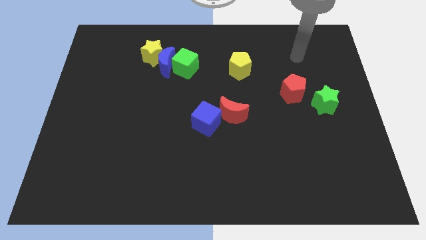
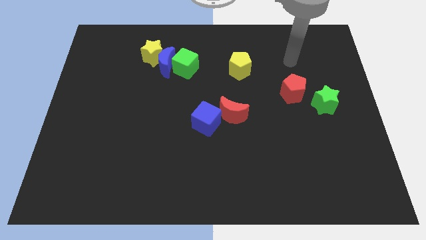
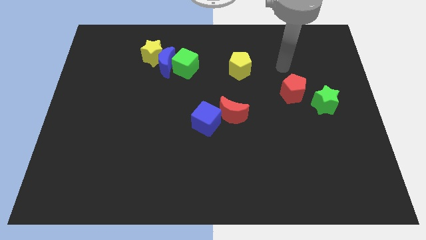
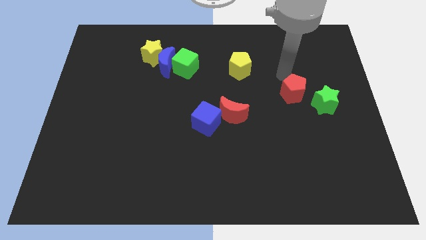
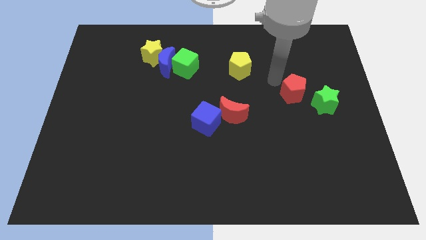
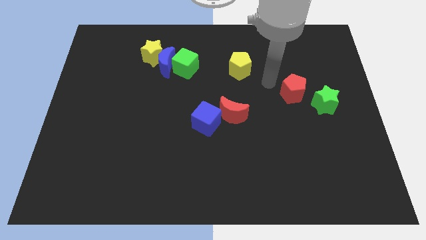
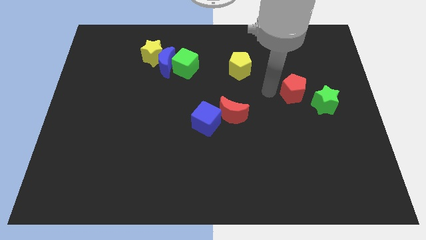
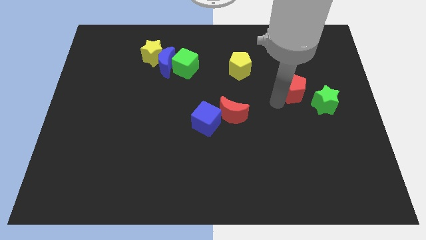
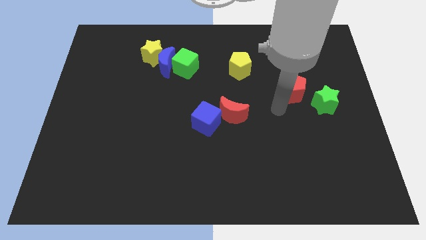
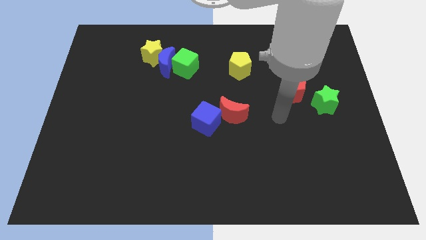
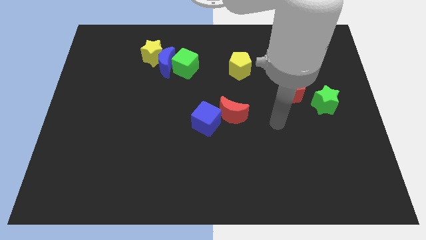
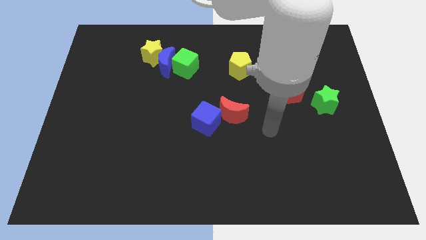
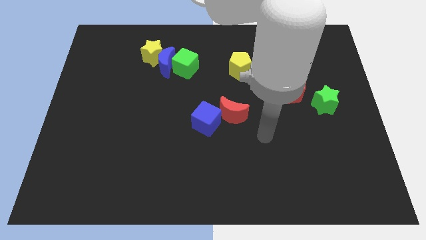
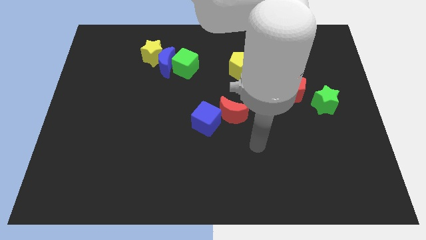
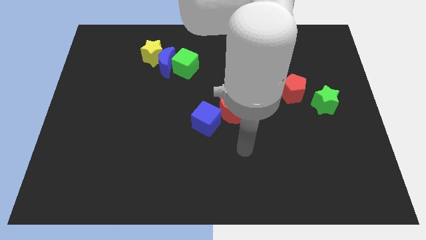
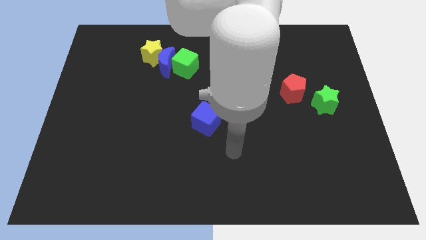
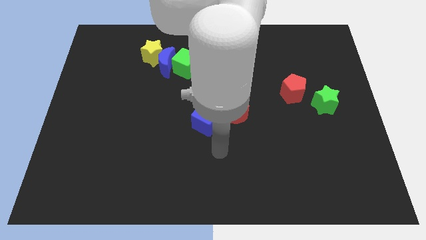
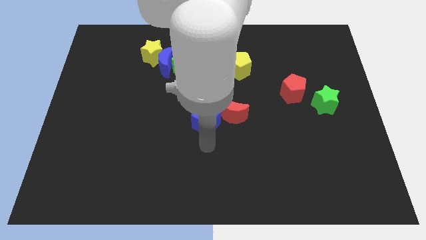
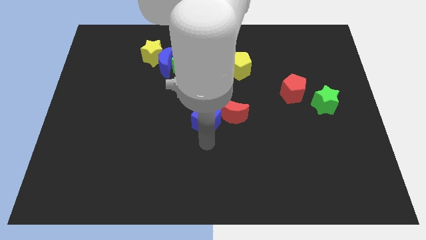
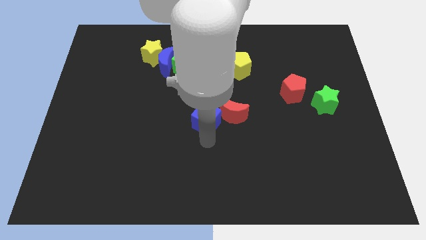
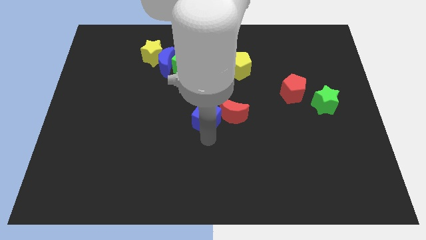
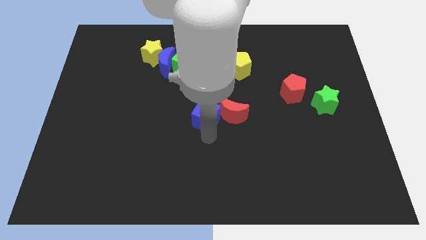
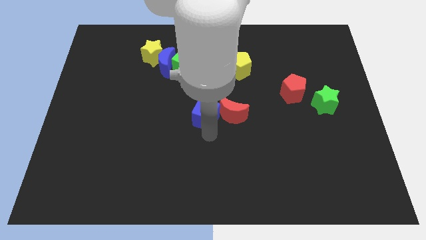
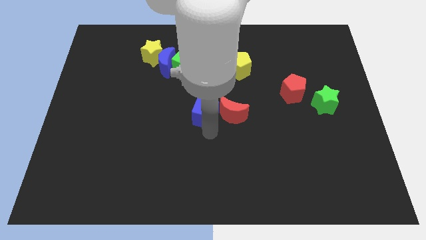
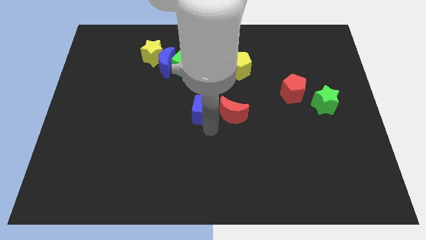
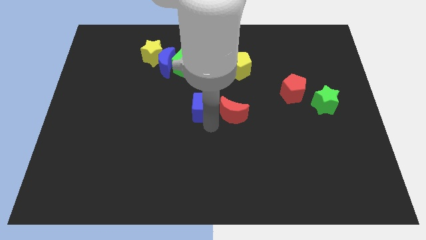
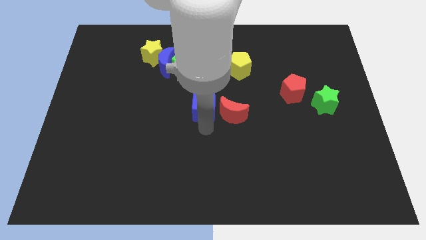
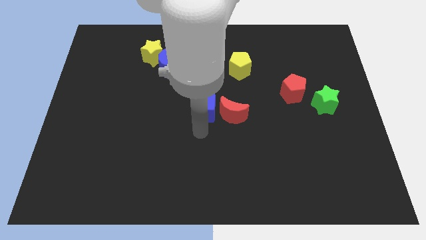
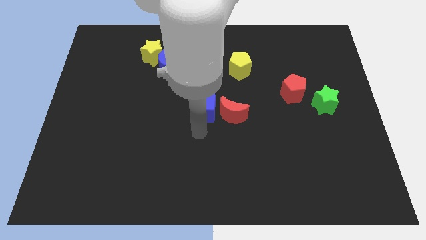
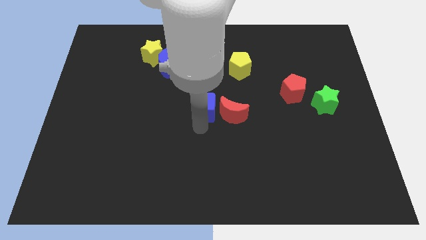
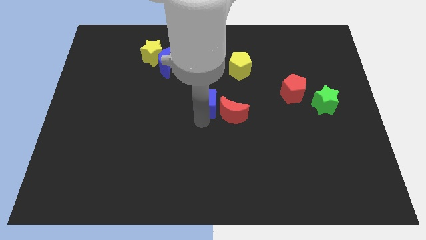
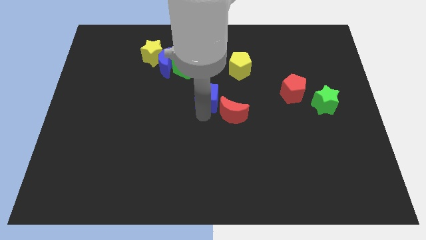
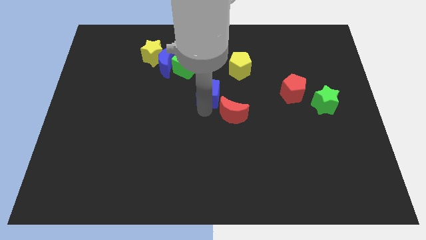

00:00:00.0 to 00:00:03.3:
slightly slide the blue cube upwards

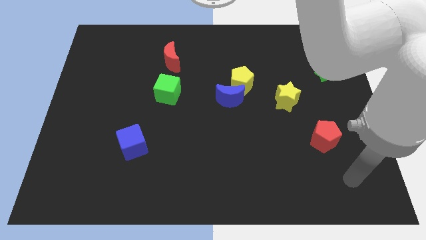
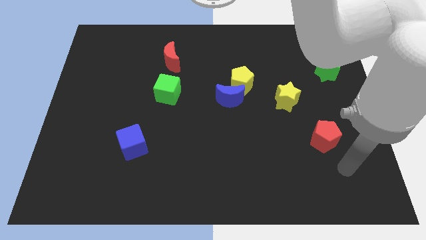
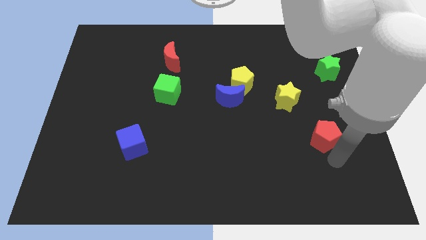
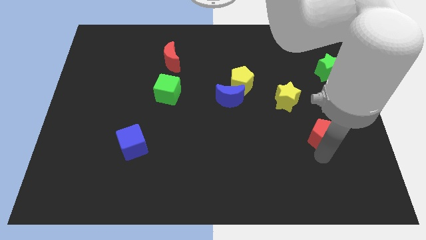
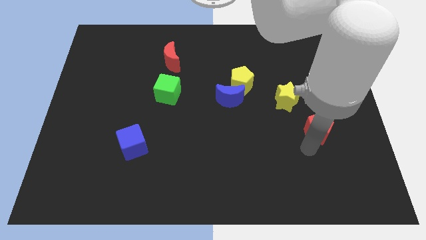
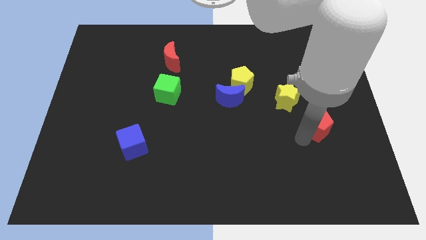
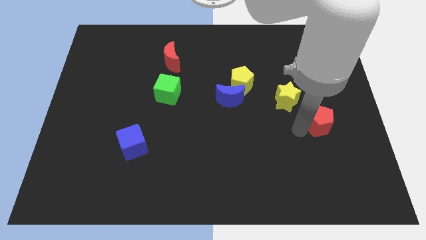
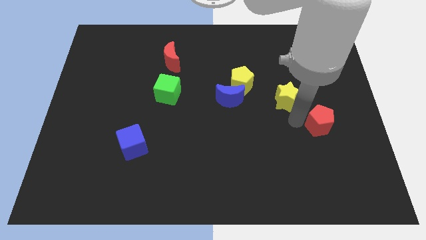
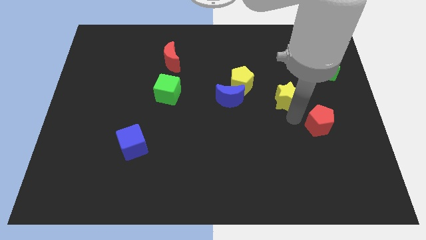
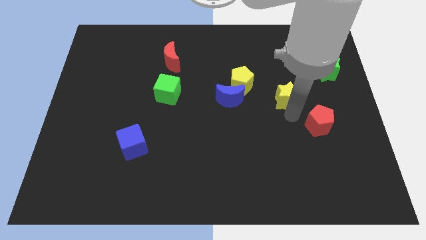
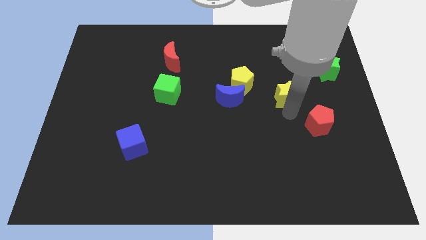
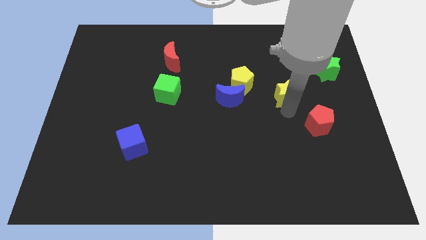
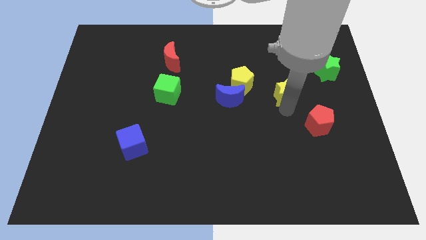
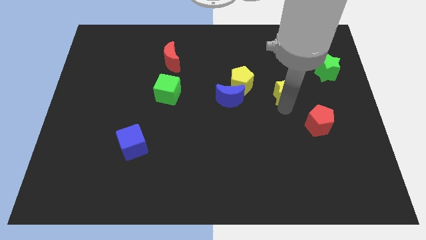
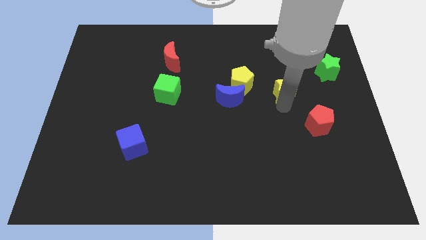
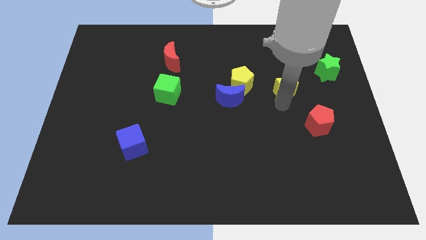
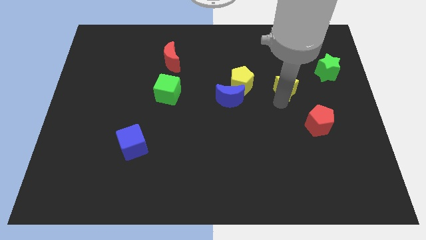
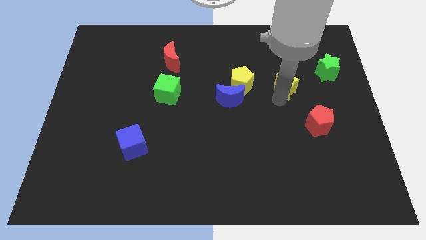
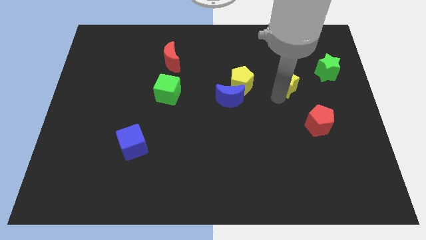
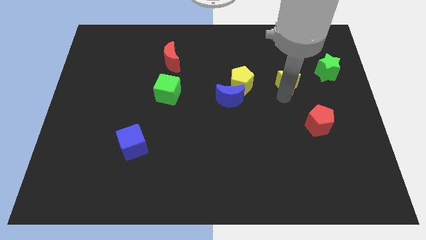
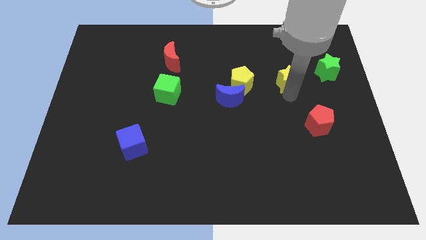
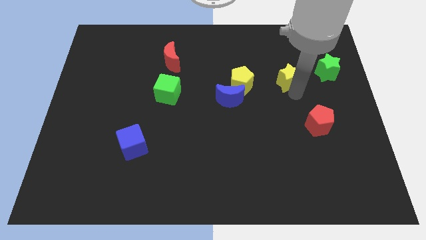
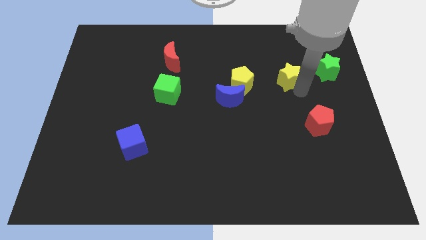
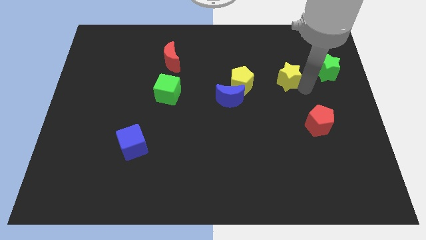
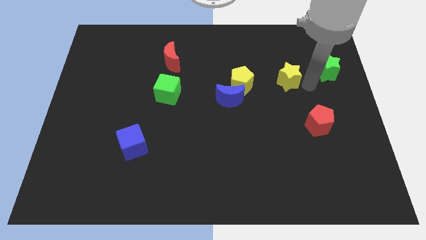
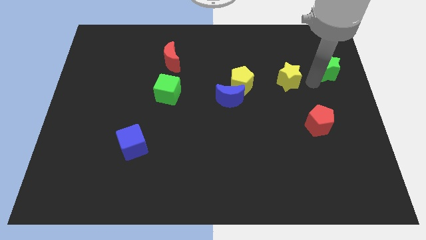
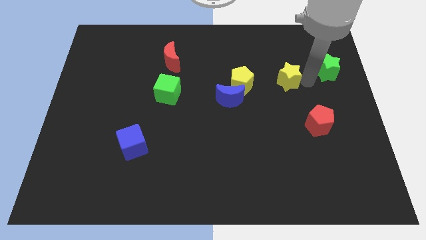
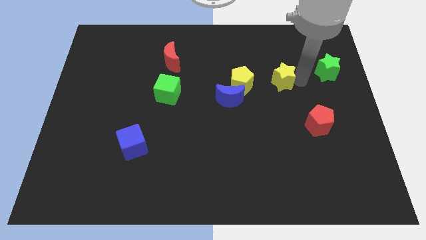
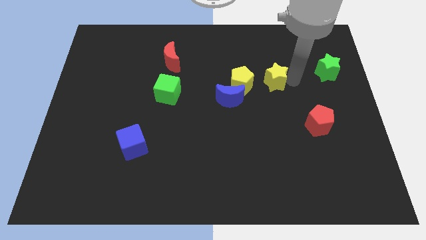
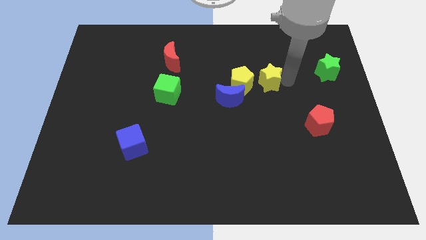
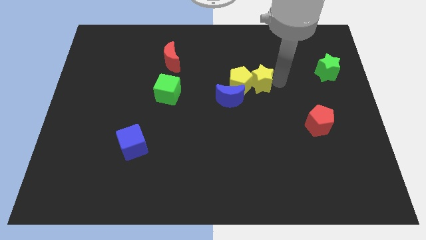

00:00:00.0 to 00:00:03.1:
slide the yellow star a bit diagonally up and left

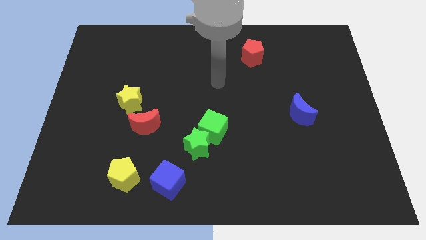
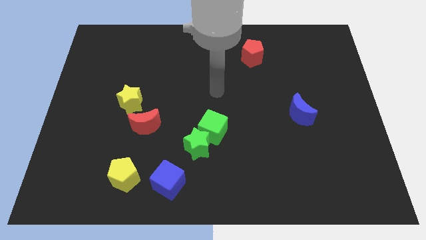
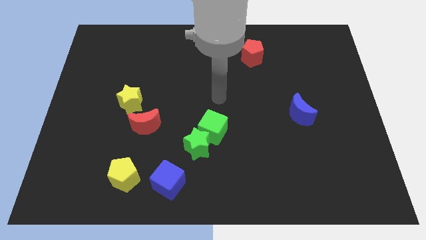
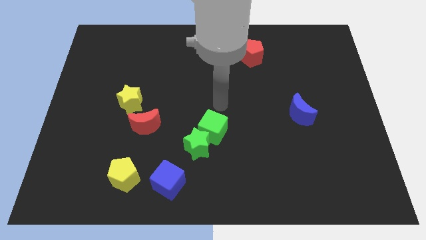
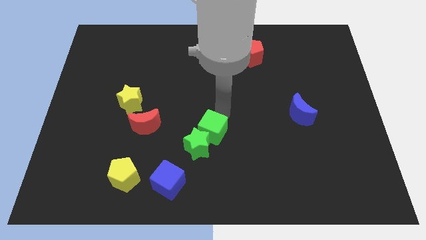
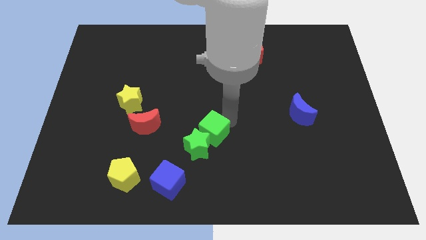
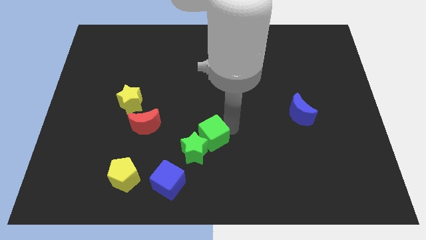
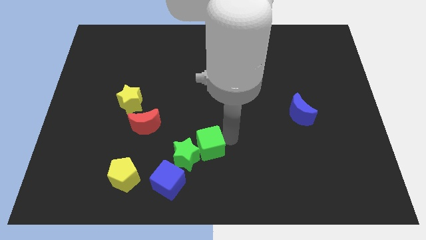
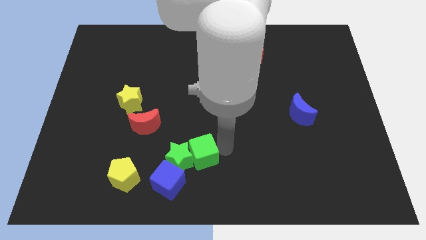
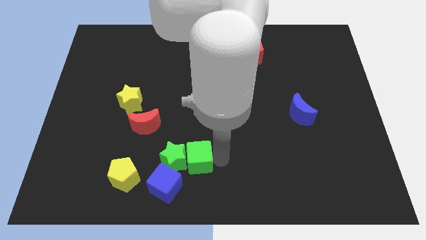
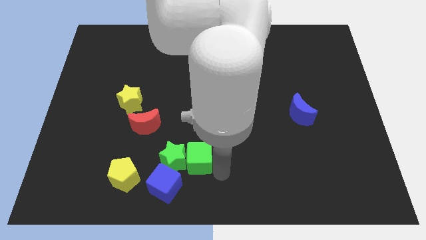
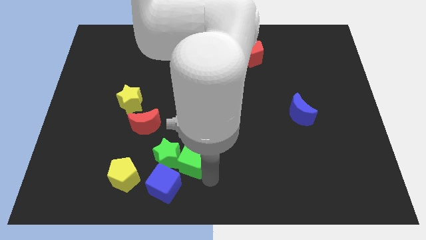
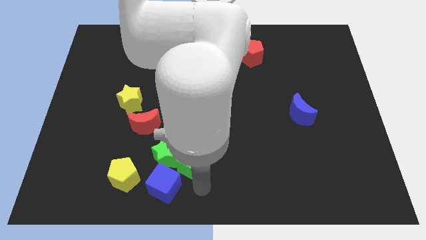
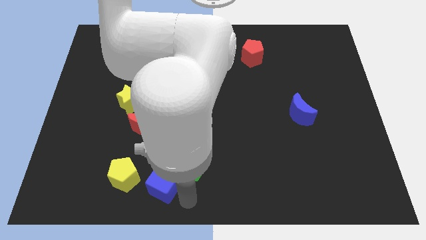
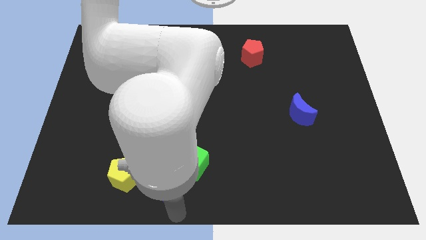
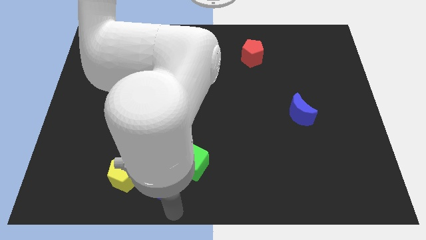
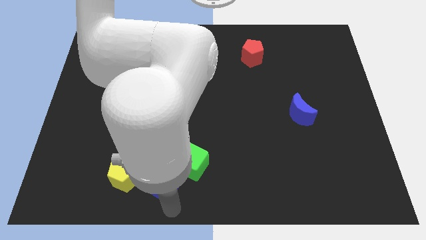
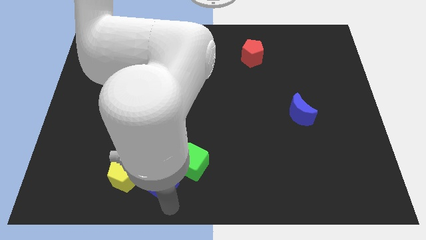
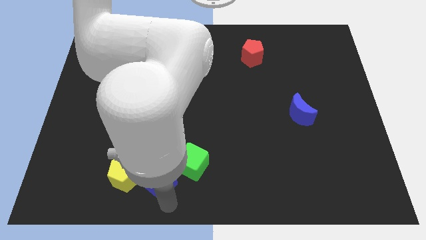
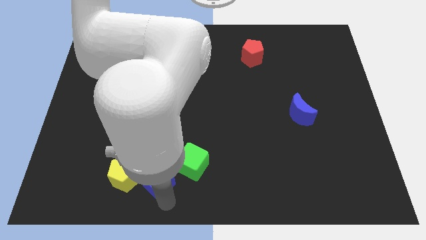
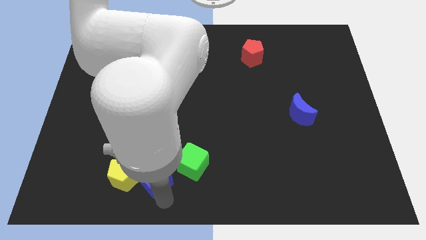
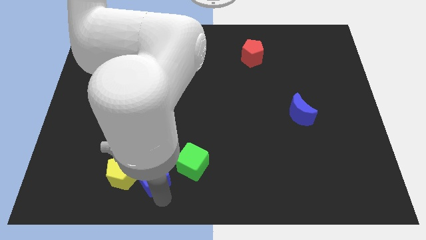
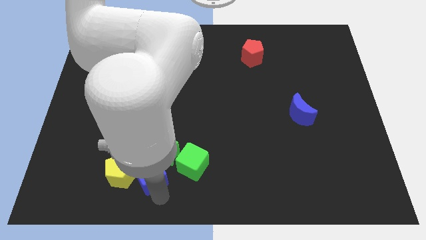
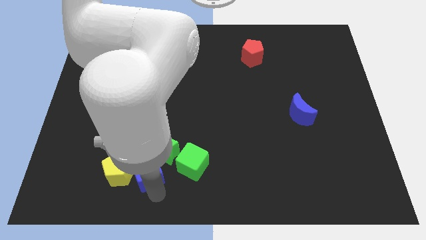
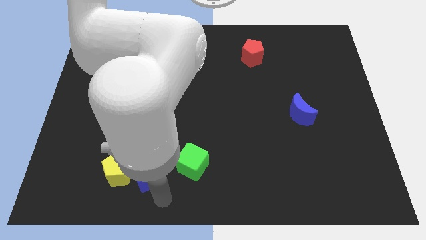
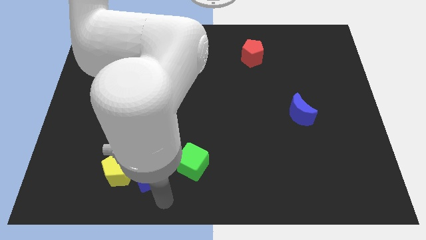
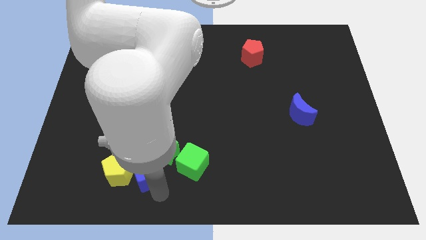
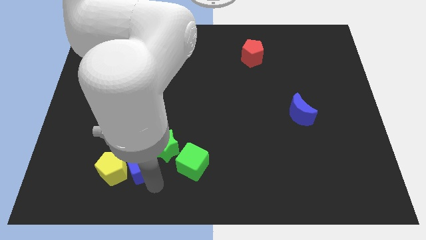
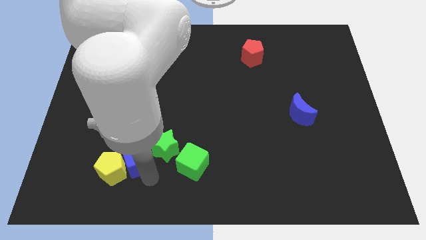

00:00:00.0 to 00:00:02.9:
push the blue cube slightly upwards and left
